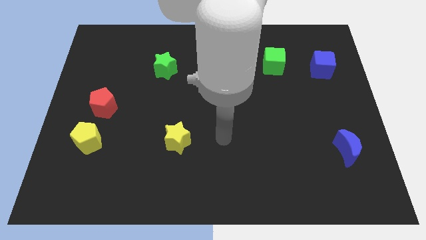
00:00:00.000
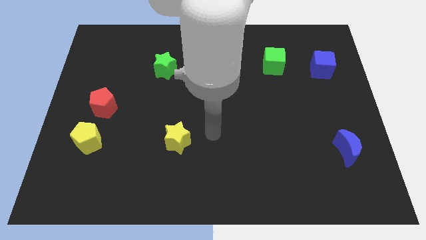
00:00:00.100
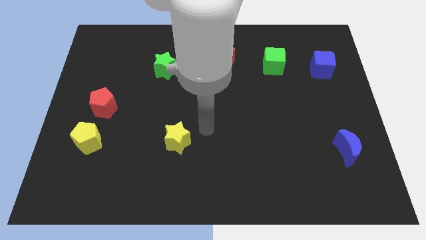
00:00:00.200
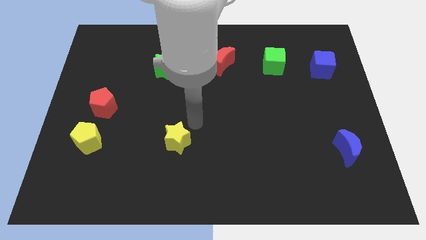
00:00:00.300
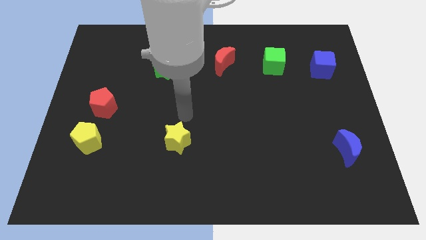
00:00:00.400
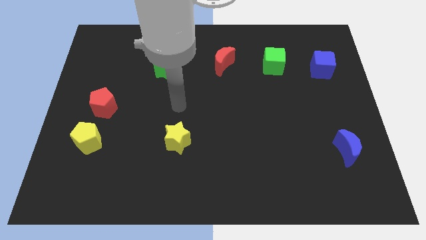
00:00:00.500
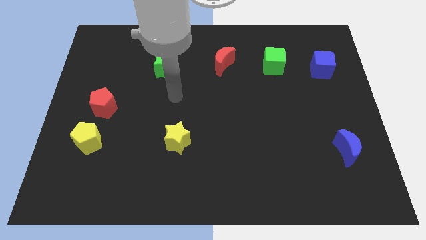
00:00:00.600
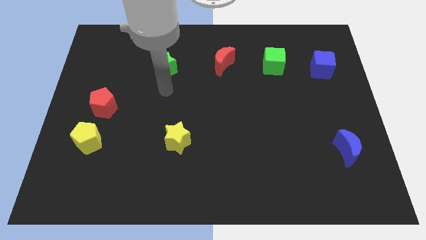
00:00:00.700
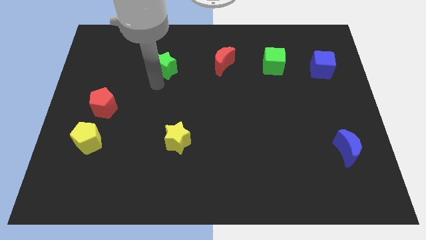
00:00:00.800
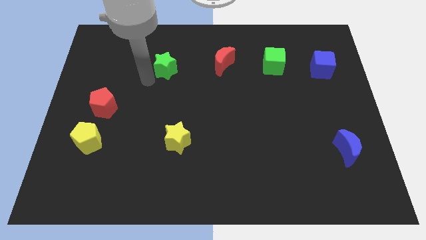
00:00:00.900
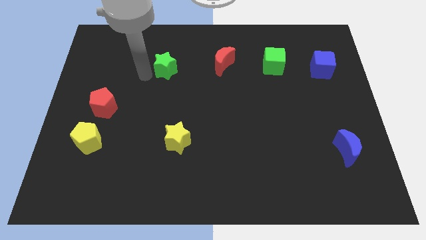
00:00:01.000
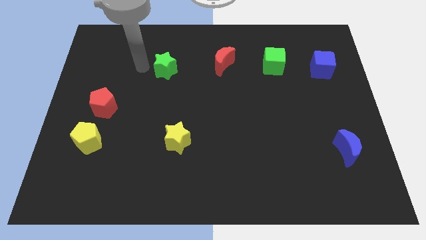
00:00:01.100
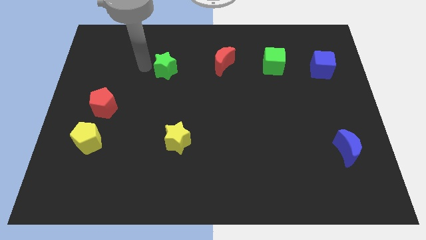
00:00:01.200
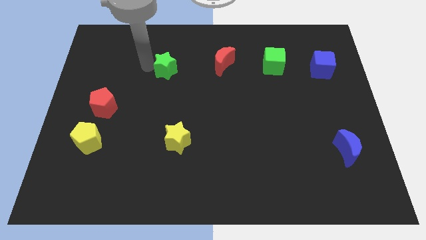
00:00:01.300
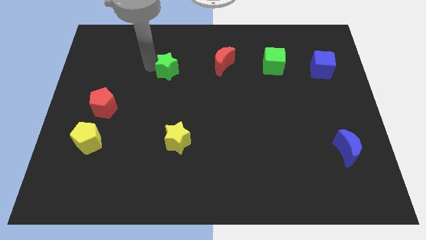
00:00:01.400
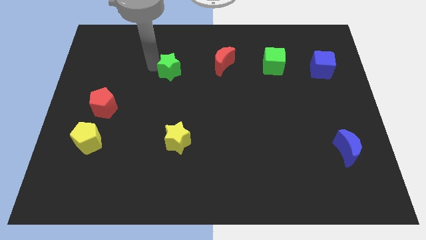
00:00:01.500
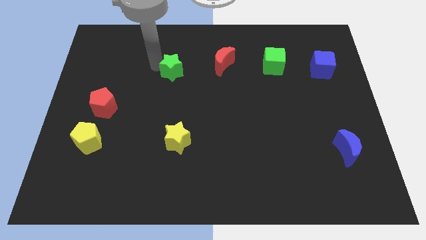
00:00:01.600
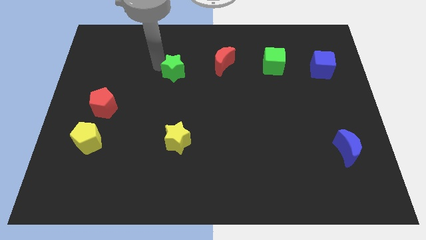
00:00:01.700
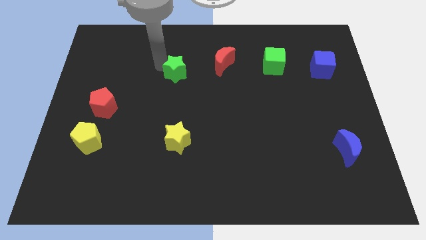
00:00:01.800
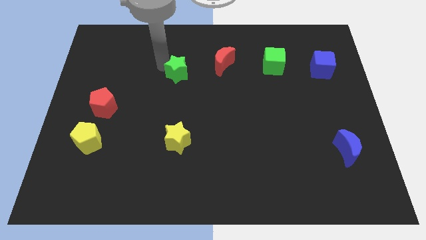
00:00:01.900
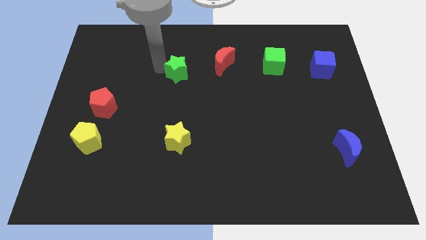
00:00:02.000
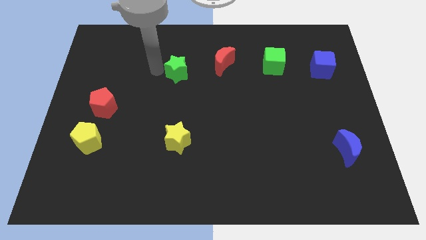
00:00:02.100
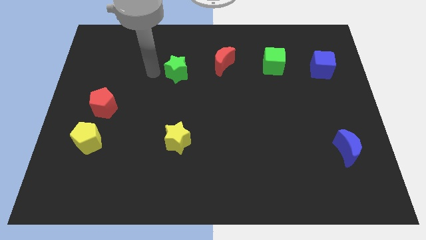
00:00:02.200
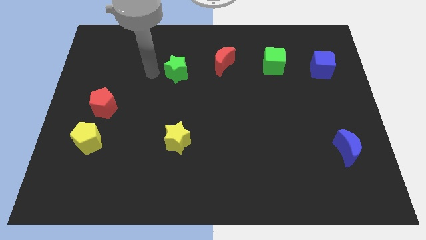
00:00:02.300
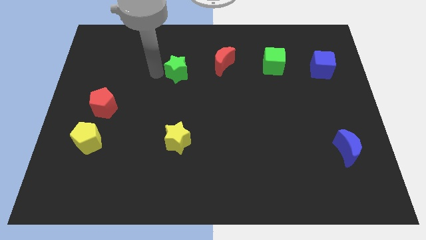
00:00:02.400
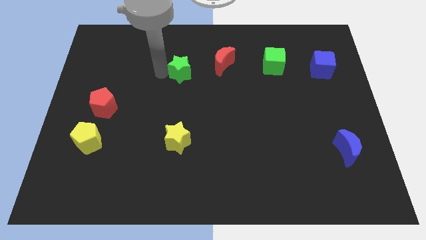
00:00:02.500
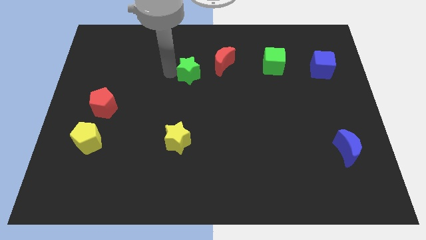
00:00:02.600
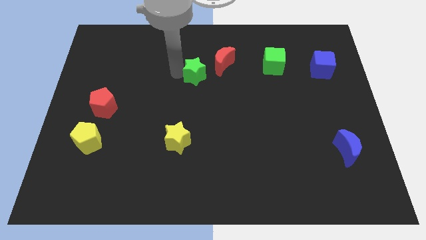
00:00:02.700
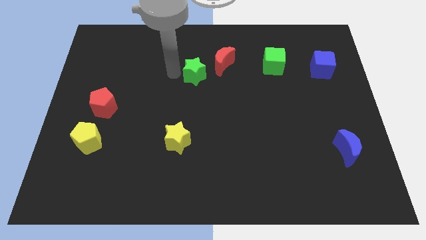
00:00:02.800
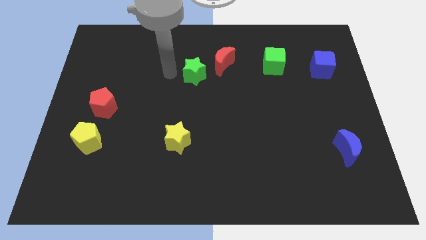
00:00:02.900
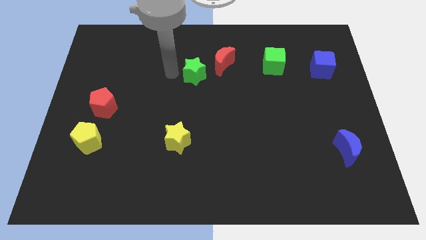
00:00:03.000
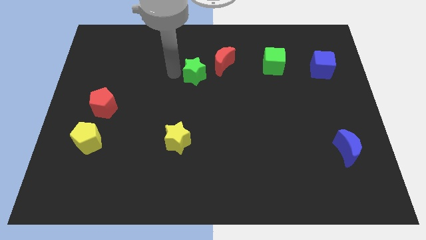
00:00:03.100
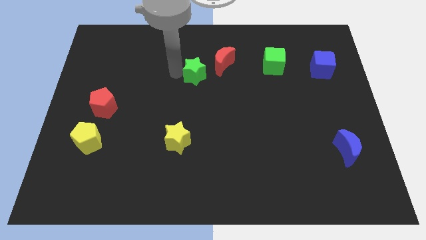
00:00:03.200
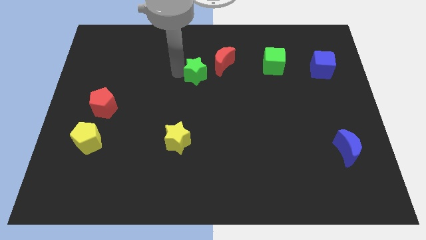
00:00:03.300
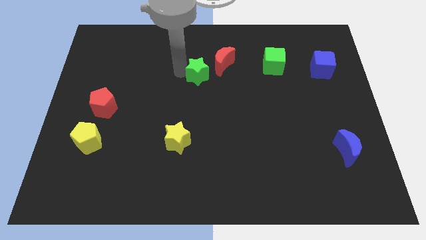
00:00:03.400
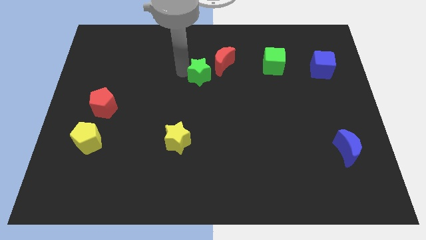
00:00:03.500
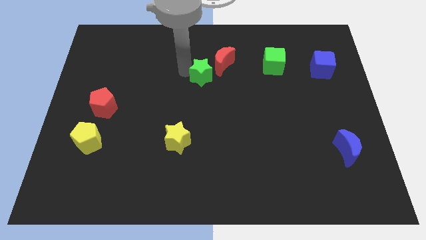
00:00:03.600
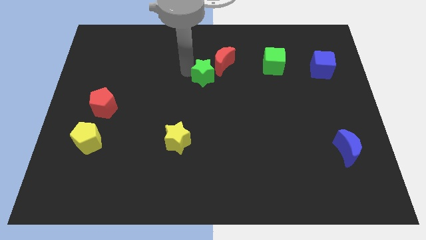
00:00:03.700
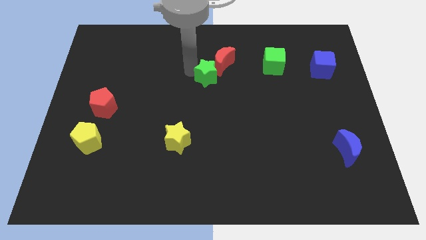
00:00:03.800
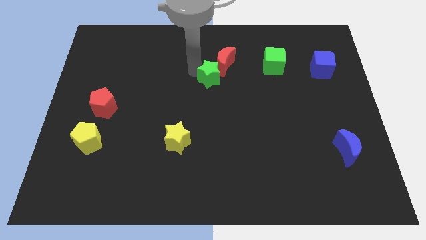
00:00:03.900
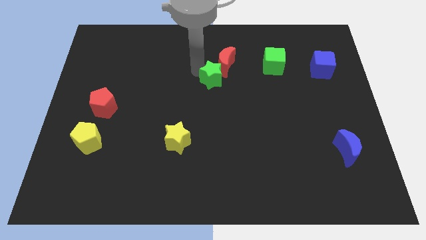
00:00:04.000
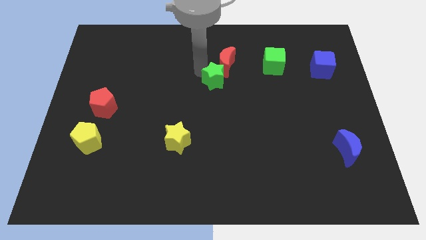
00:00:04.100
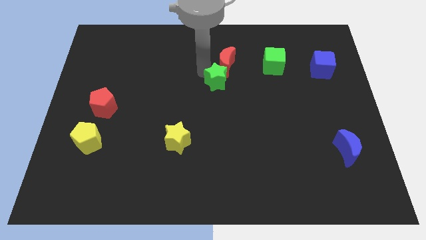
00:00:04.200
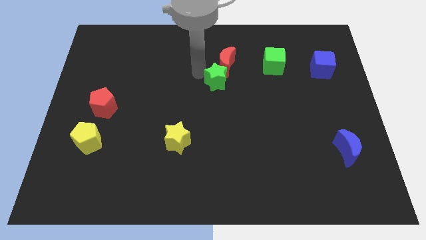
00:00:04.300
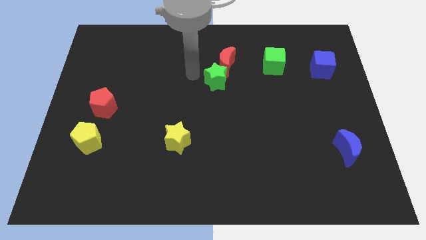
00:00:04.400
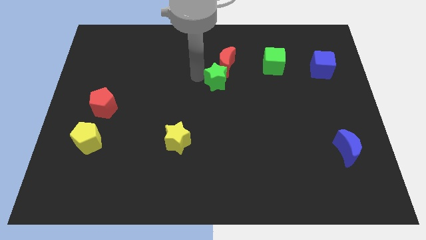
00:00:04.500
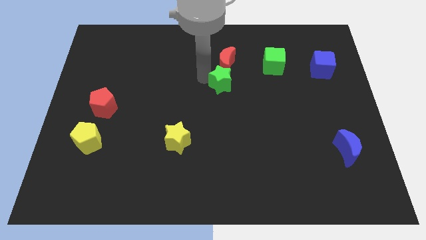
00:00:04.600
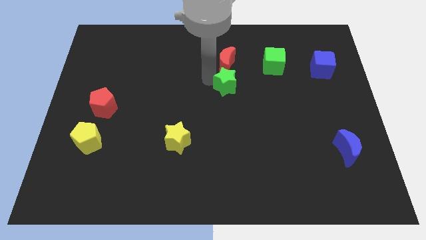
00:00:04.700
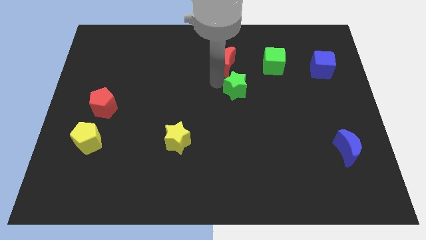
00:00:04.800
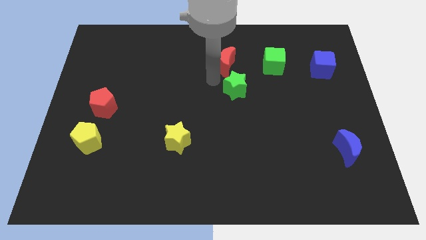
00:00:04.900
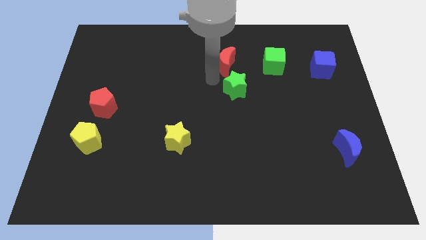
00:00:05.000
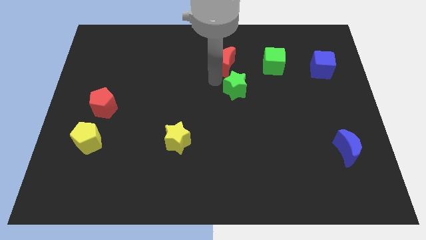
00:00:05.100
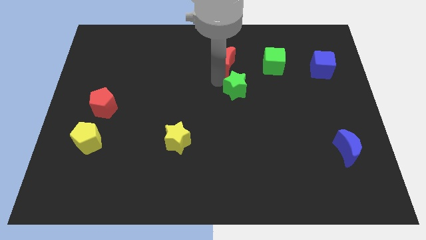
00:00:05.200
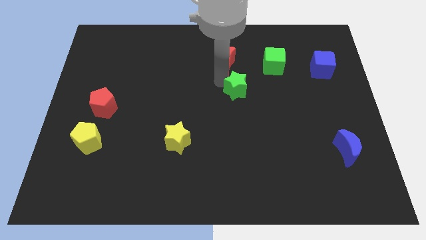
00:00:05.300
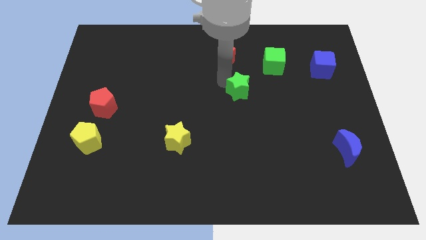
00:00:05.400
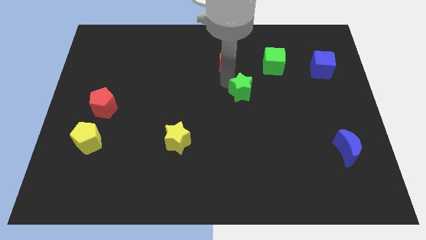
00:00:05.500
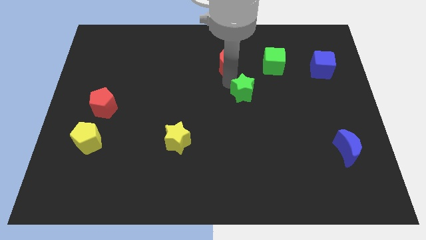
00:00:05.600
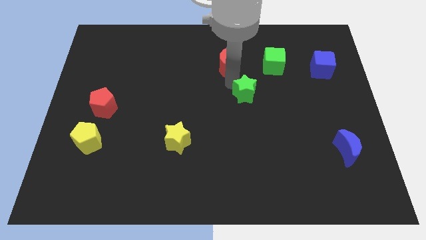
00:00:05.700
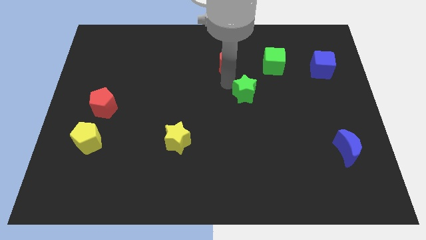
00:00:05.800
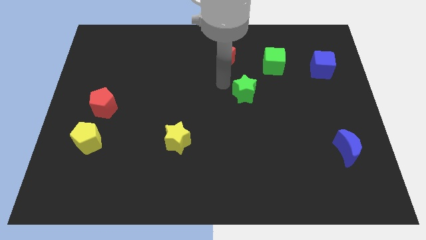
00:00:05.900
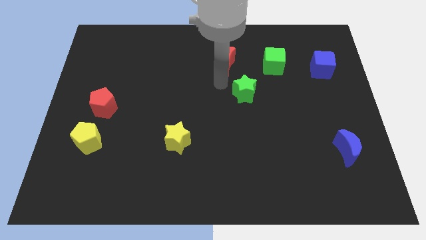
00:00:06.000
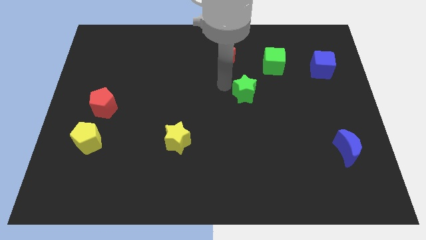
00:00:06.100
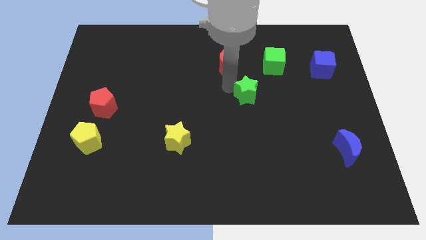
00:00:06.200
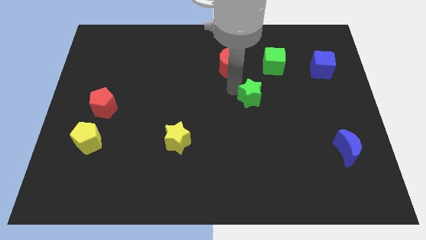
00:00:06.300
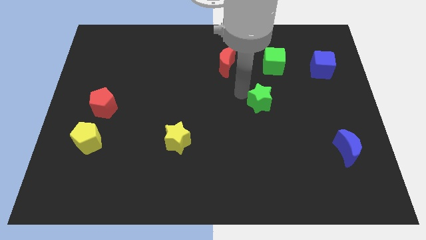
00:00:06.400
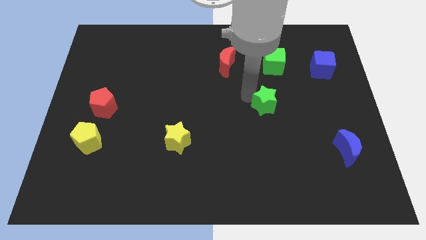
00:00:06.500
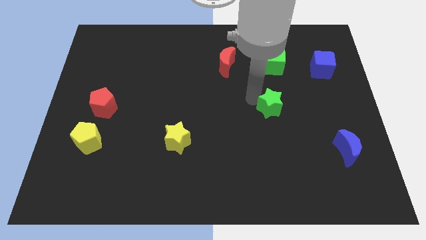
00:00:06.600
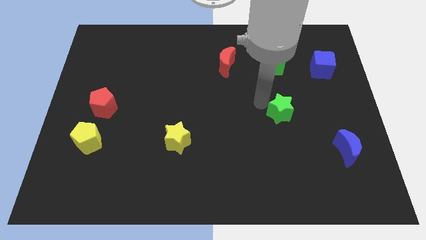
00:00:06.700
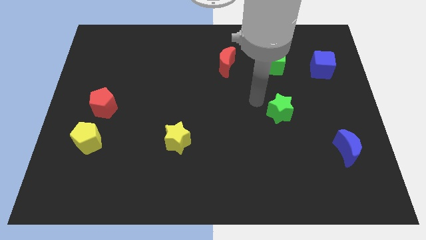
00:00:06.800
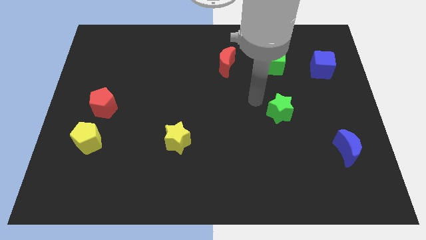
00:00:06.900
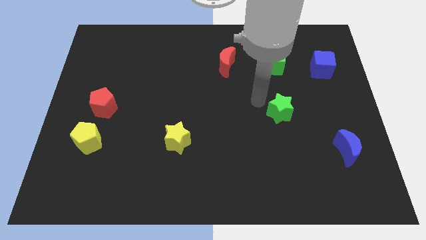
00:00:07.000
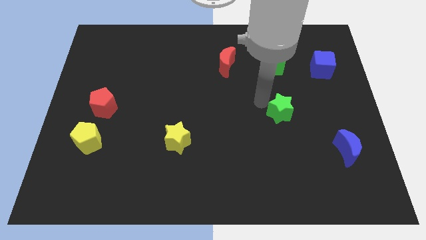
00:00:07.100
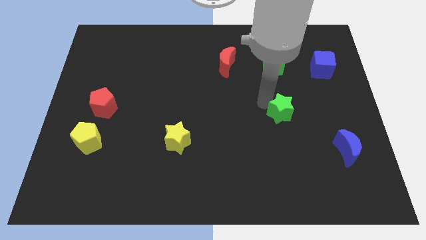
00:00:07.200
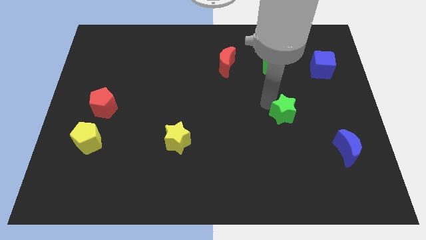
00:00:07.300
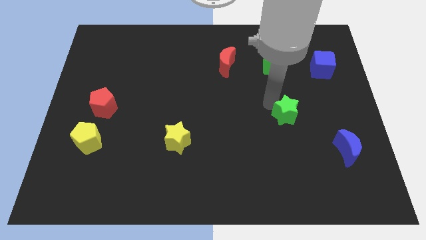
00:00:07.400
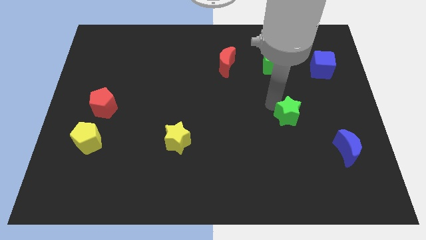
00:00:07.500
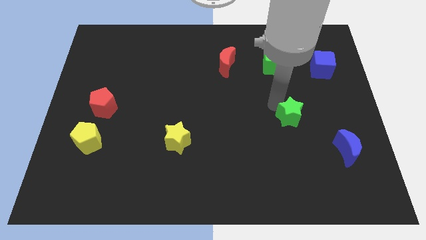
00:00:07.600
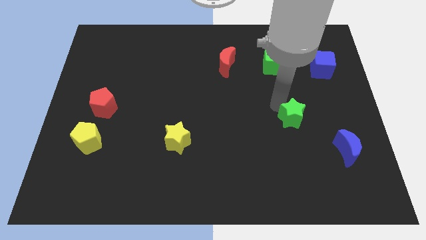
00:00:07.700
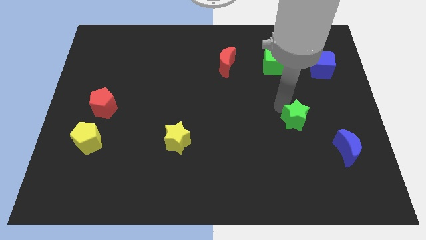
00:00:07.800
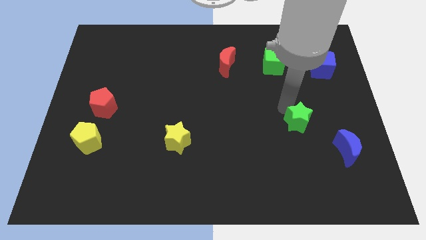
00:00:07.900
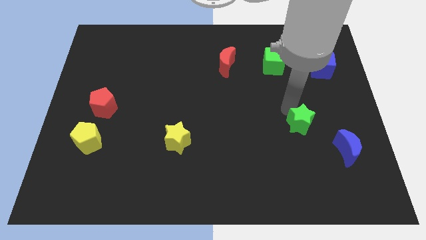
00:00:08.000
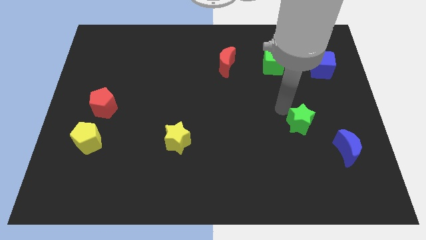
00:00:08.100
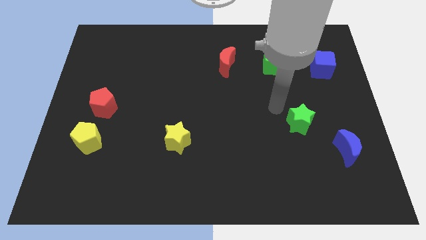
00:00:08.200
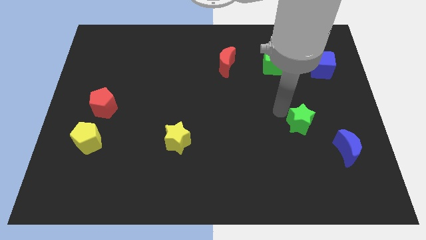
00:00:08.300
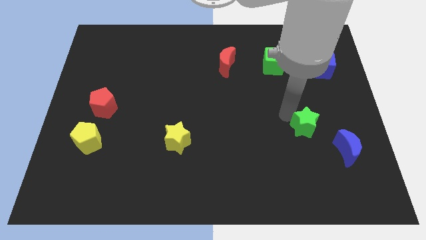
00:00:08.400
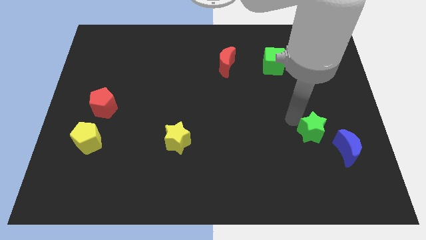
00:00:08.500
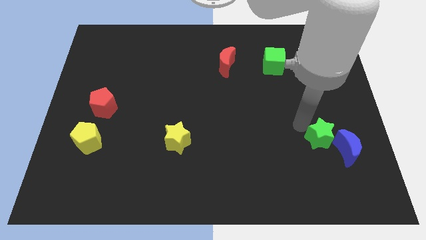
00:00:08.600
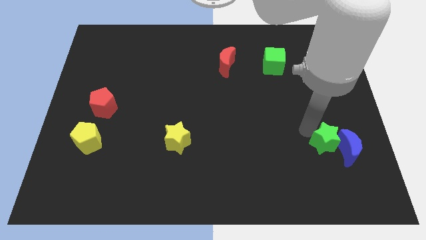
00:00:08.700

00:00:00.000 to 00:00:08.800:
put the green star to the blue moon
